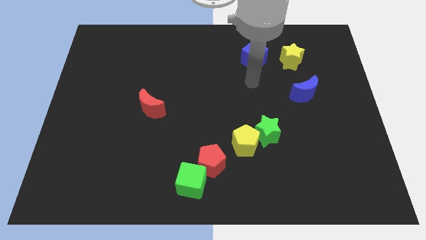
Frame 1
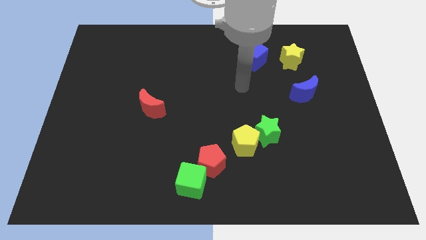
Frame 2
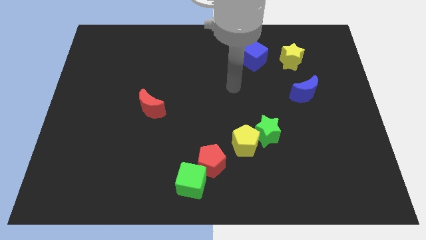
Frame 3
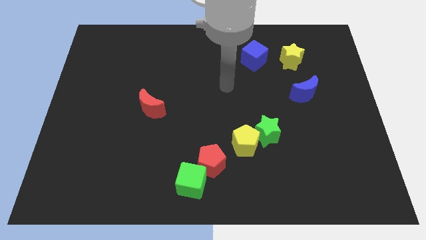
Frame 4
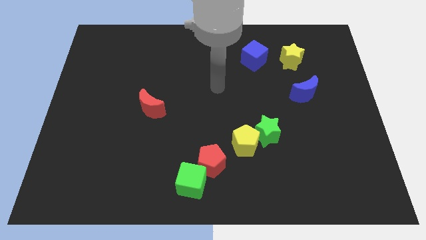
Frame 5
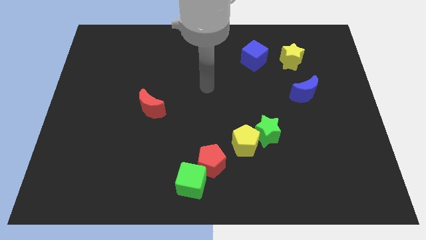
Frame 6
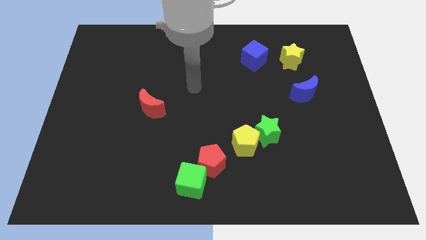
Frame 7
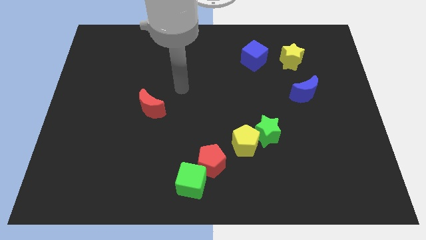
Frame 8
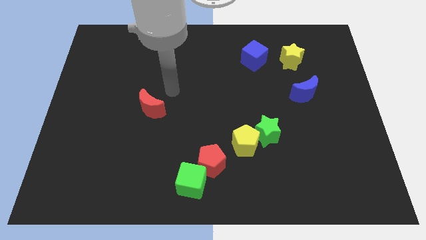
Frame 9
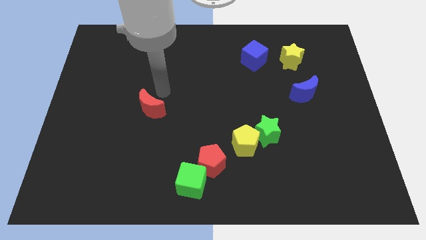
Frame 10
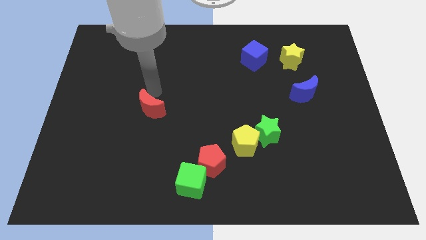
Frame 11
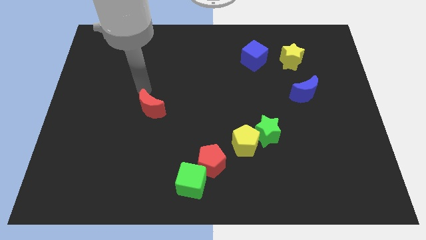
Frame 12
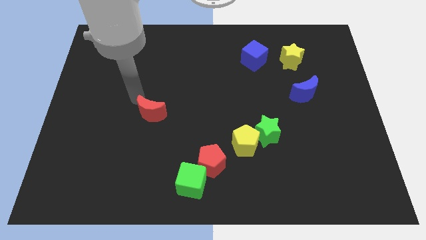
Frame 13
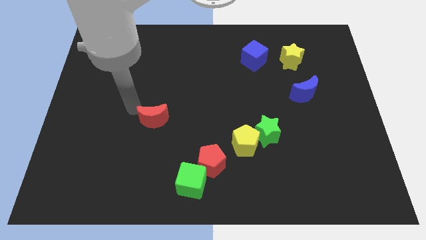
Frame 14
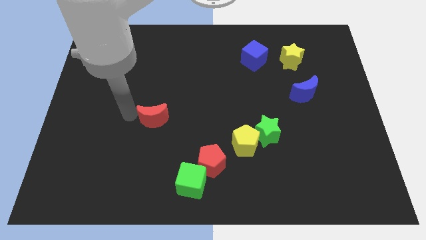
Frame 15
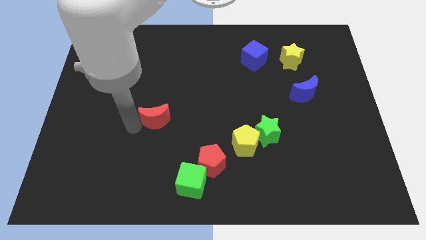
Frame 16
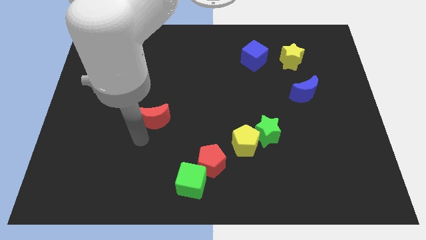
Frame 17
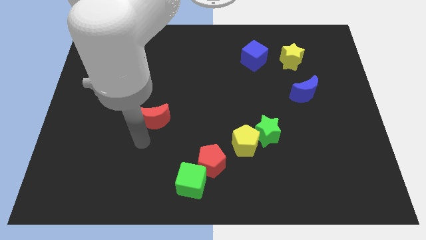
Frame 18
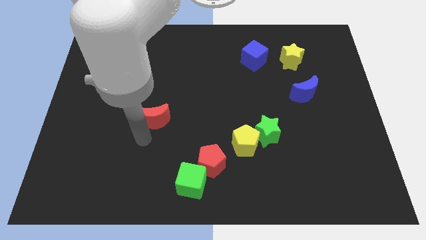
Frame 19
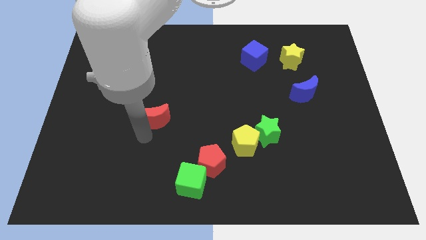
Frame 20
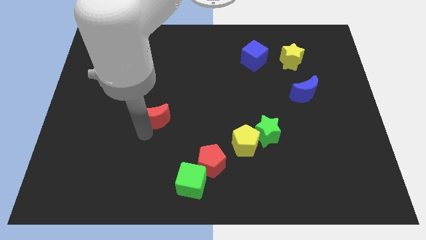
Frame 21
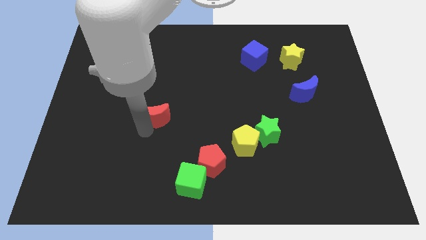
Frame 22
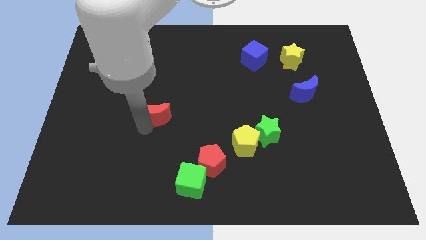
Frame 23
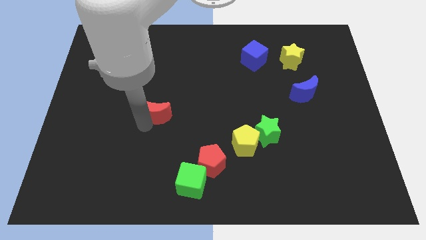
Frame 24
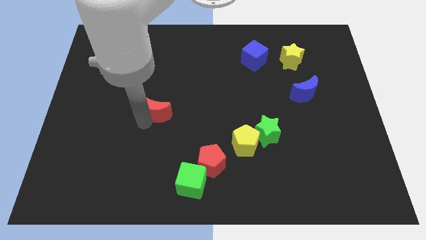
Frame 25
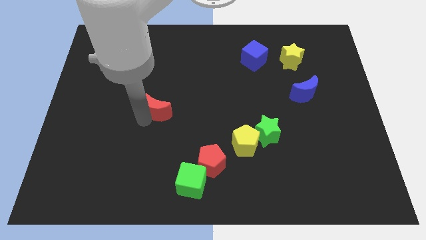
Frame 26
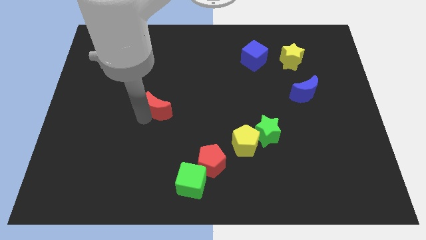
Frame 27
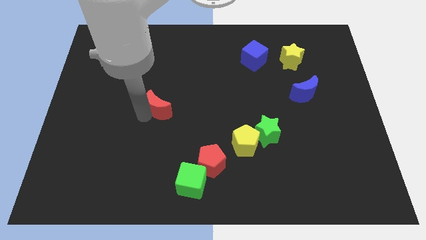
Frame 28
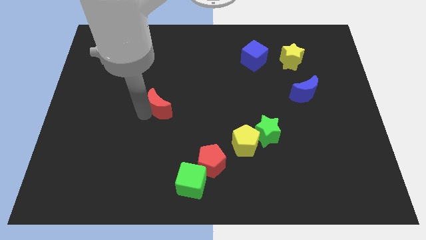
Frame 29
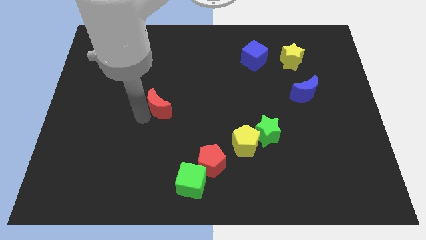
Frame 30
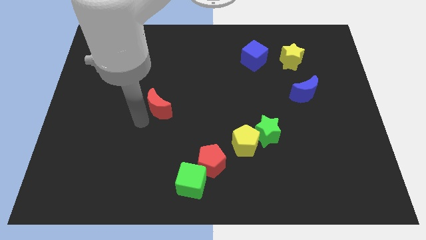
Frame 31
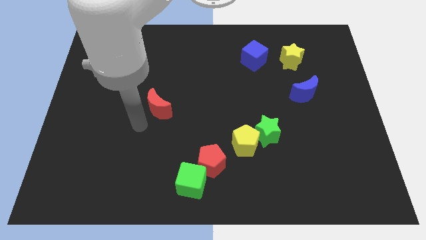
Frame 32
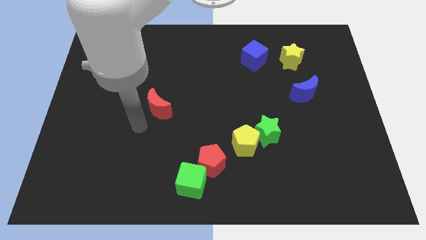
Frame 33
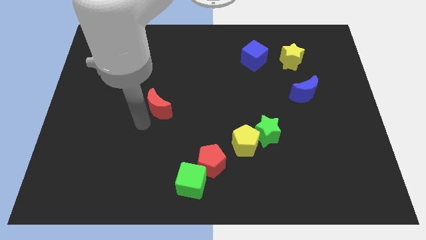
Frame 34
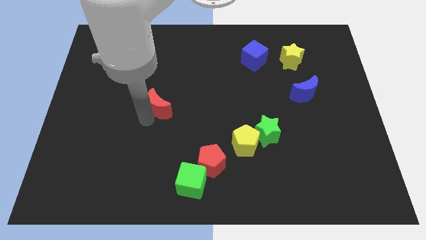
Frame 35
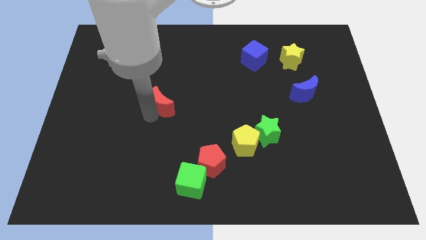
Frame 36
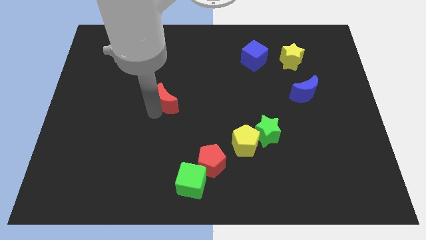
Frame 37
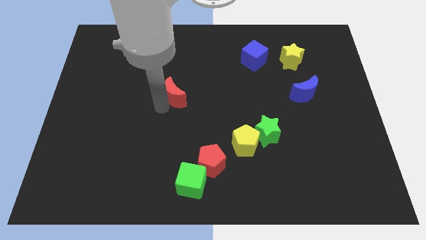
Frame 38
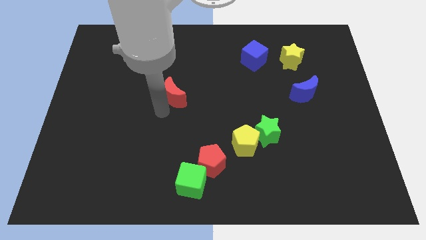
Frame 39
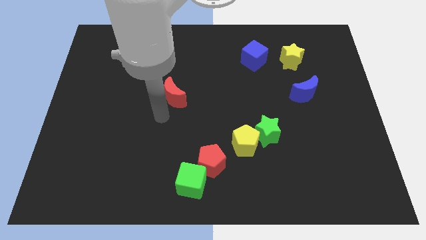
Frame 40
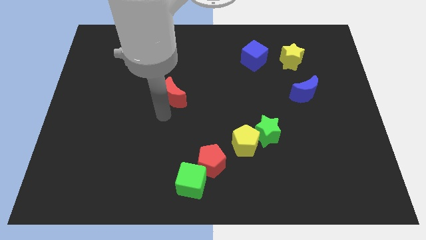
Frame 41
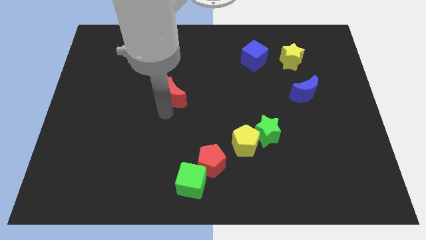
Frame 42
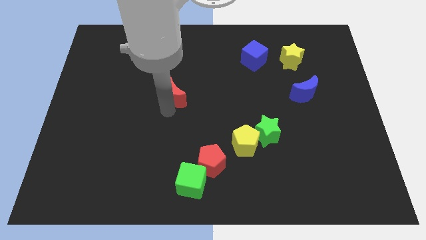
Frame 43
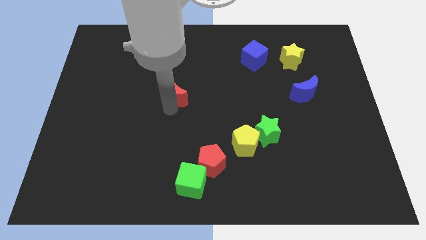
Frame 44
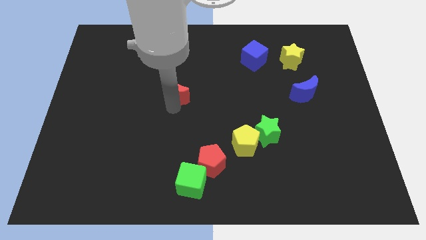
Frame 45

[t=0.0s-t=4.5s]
slightly push the red moon diagonally up and right

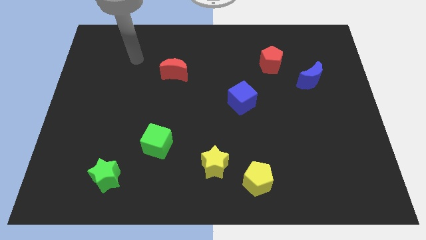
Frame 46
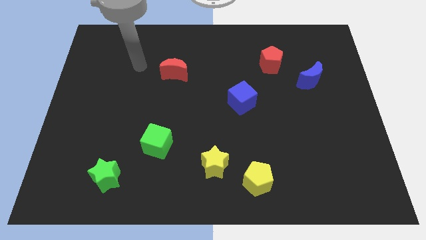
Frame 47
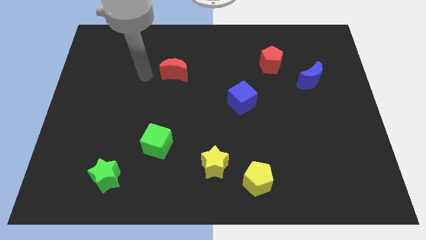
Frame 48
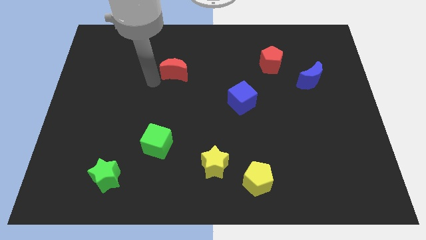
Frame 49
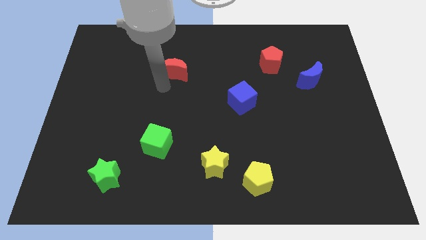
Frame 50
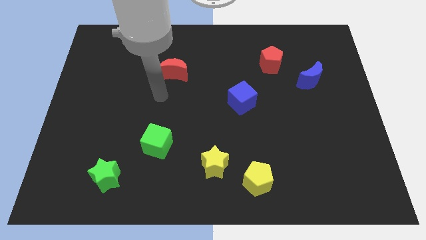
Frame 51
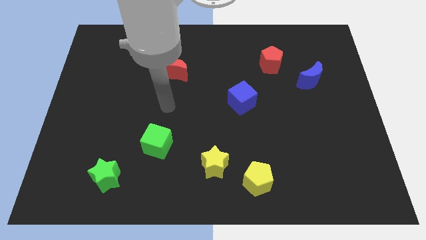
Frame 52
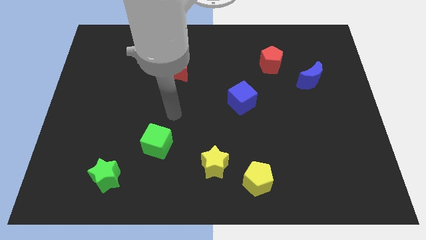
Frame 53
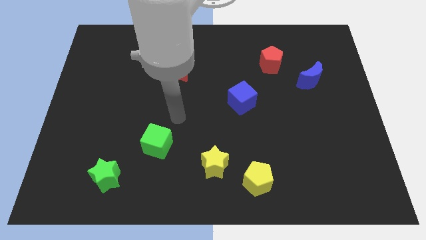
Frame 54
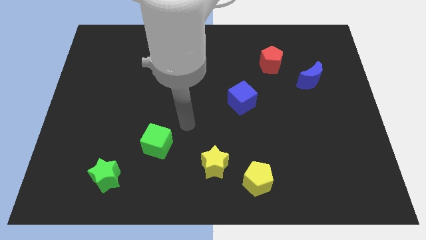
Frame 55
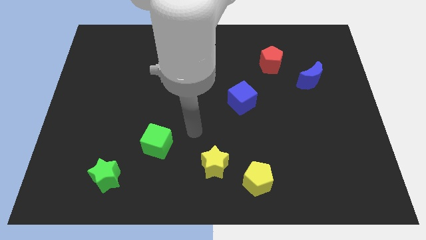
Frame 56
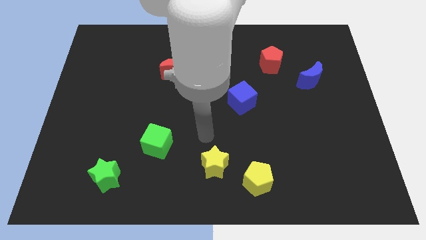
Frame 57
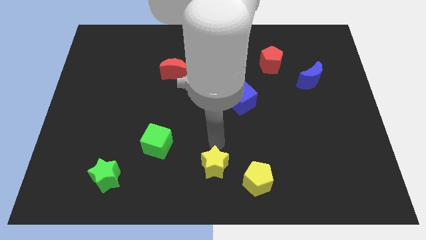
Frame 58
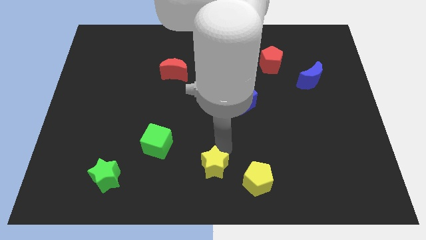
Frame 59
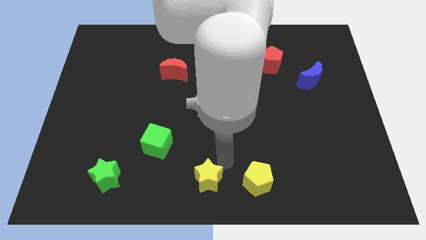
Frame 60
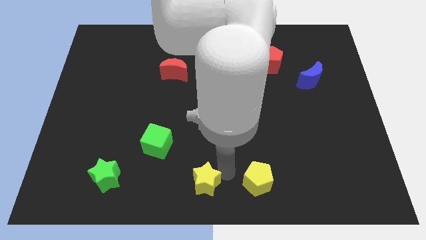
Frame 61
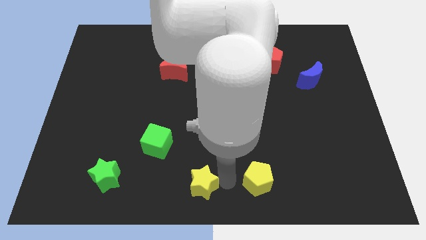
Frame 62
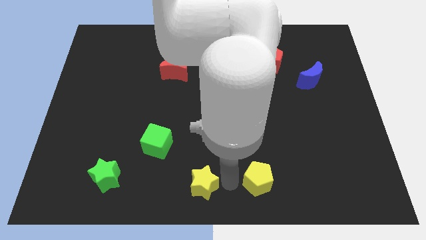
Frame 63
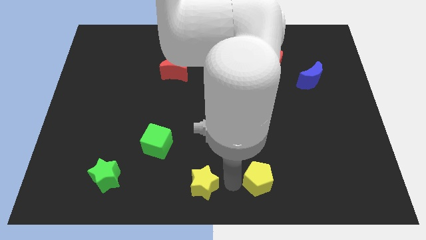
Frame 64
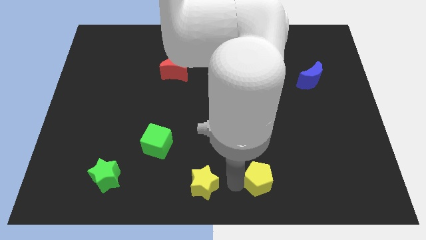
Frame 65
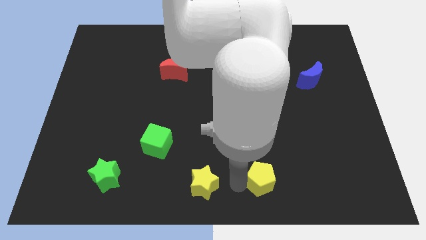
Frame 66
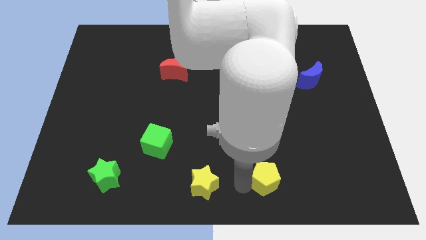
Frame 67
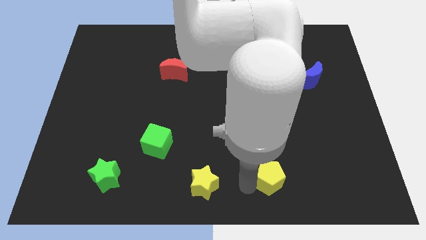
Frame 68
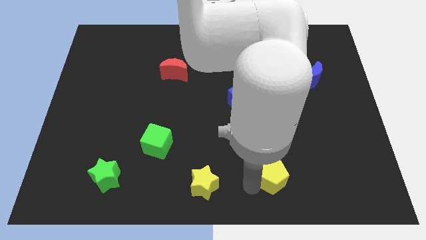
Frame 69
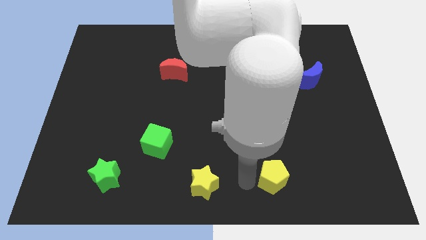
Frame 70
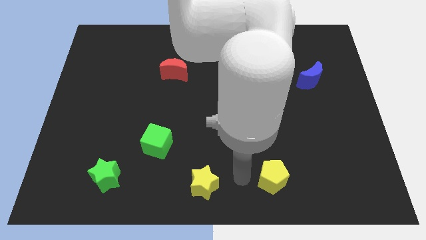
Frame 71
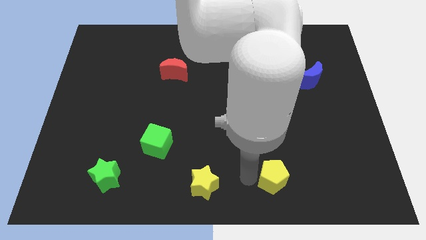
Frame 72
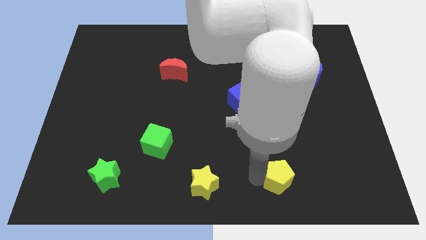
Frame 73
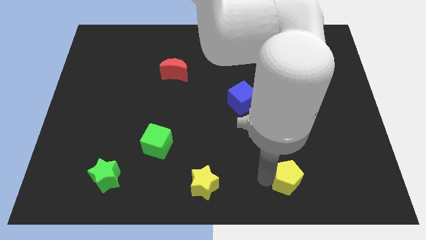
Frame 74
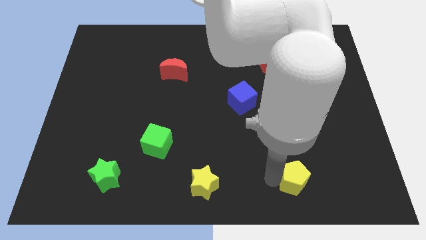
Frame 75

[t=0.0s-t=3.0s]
slide the yellow pentagon a bit right

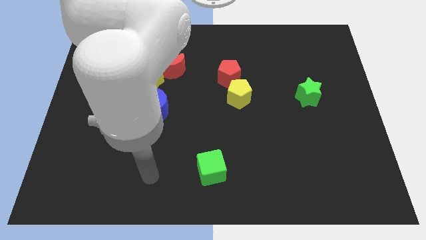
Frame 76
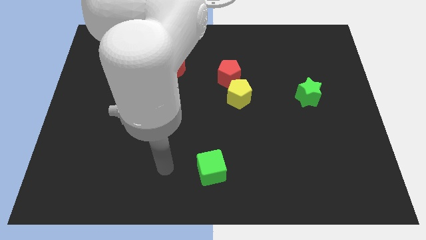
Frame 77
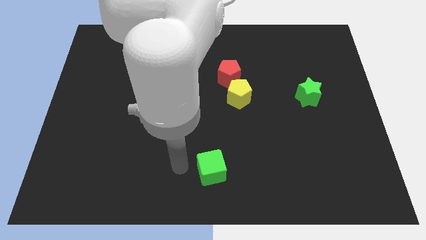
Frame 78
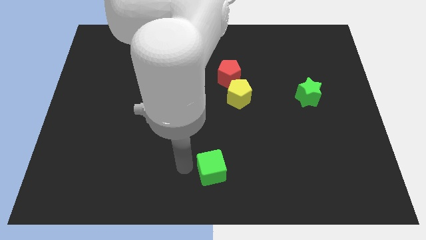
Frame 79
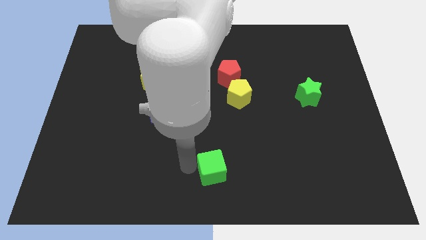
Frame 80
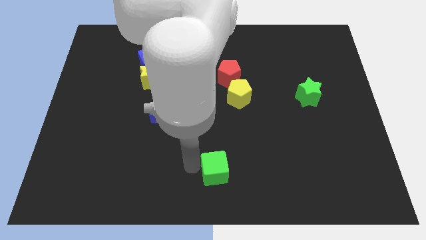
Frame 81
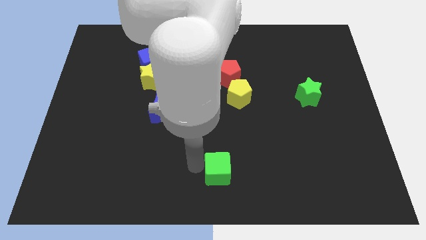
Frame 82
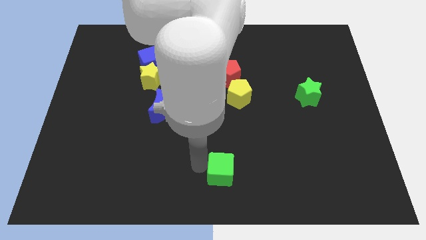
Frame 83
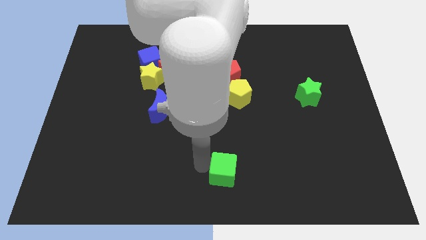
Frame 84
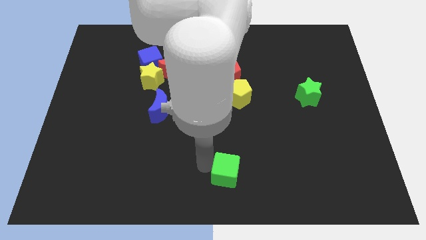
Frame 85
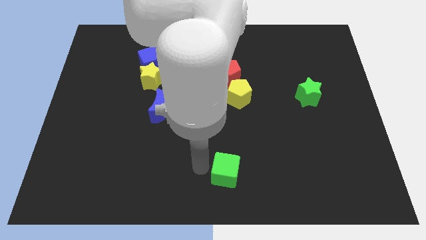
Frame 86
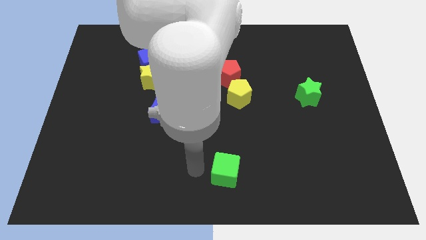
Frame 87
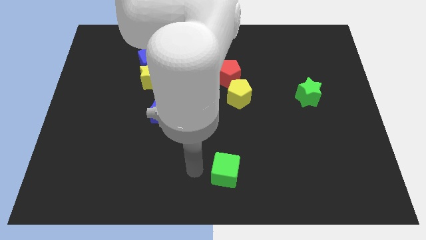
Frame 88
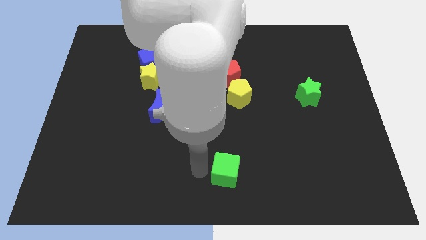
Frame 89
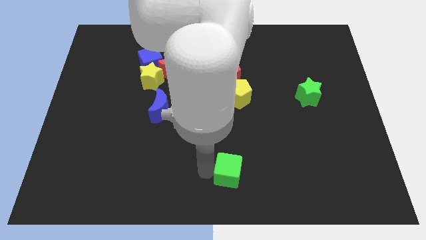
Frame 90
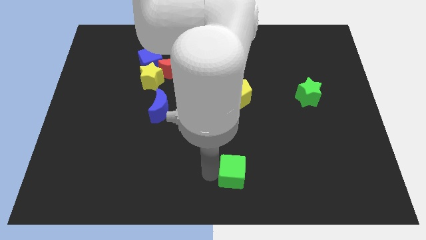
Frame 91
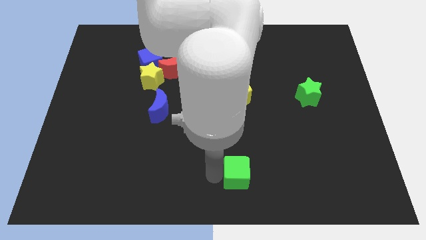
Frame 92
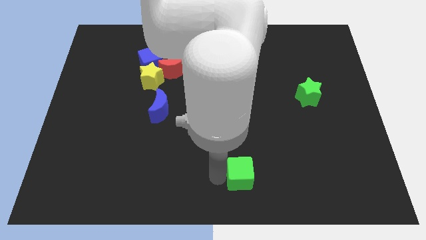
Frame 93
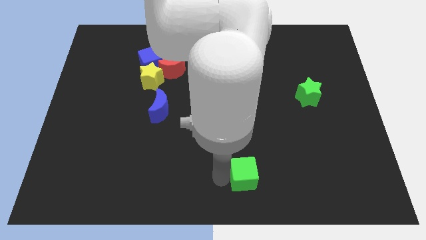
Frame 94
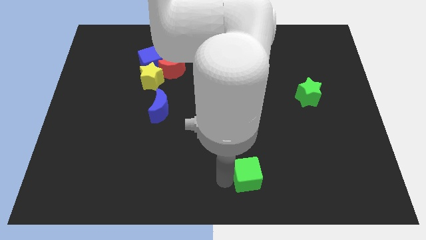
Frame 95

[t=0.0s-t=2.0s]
move the green cube a bit right
